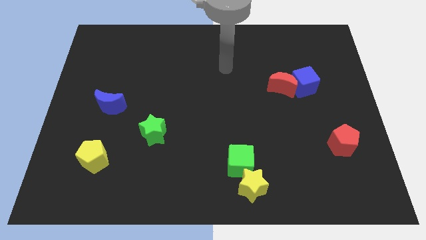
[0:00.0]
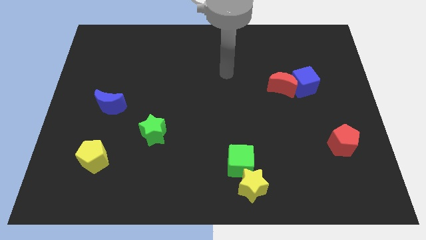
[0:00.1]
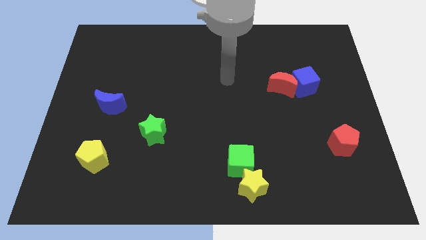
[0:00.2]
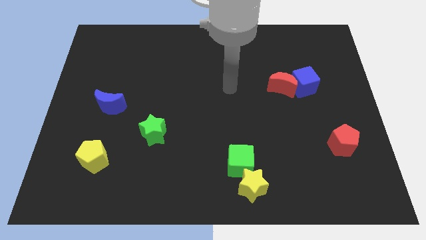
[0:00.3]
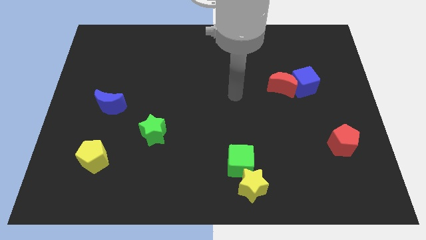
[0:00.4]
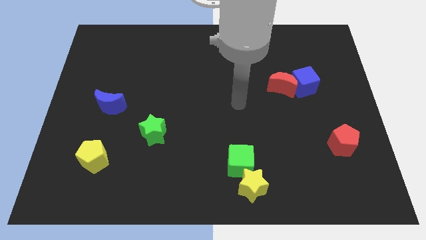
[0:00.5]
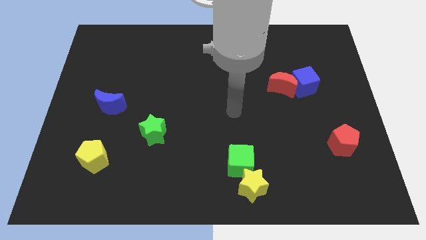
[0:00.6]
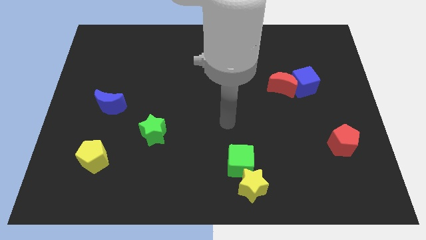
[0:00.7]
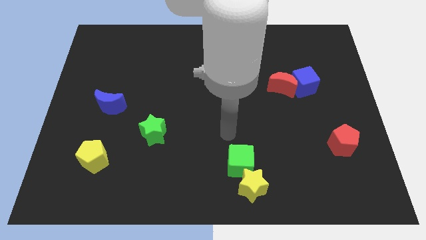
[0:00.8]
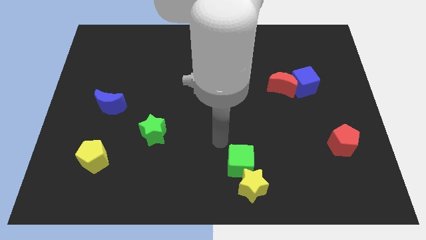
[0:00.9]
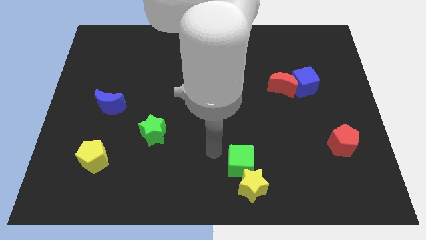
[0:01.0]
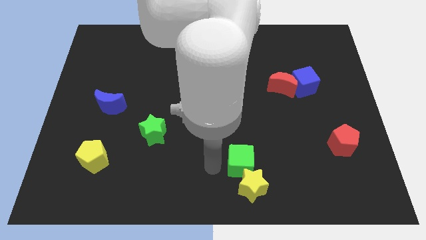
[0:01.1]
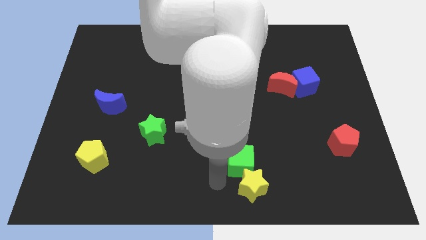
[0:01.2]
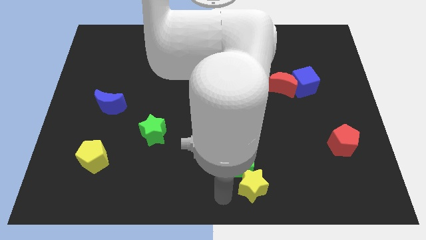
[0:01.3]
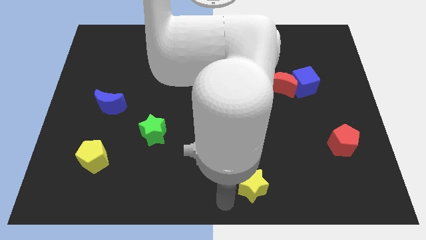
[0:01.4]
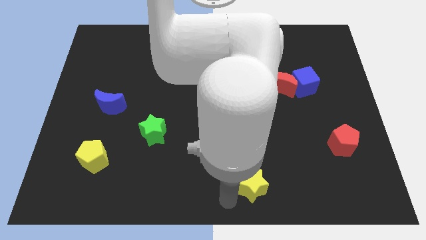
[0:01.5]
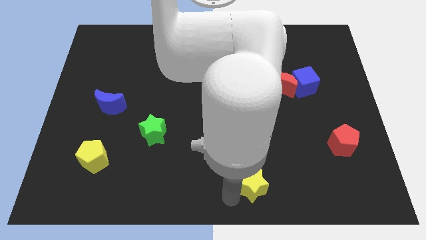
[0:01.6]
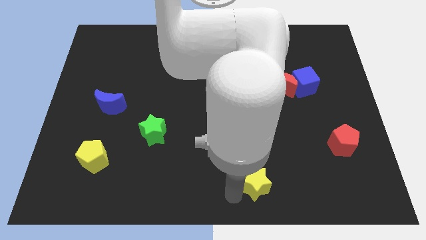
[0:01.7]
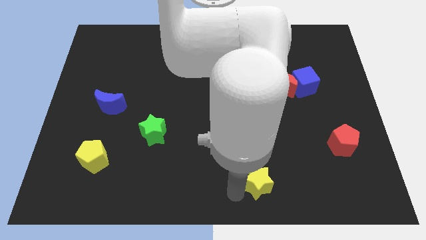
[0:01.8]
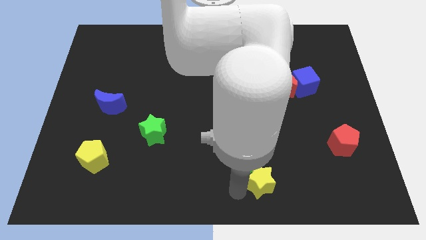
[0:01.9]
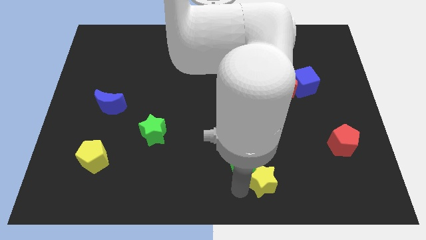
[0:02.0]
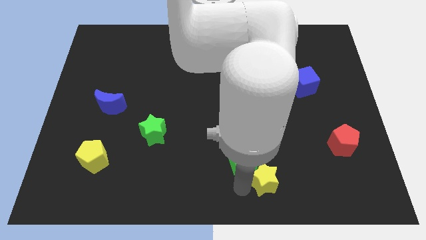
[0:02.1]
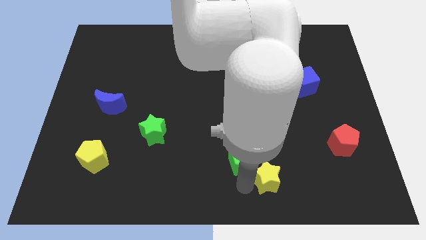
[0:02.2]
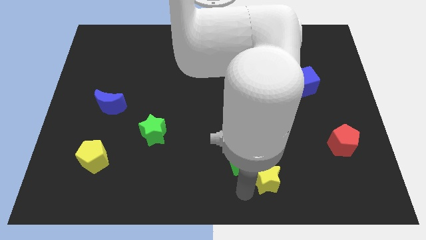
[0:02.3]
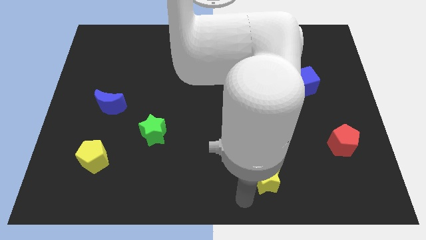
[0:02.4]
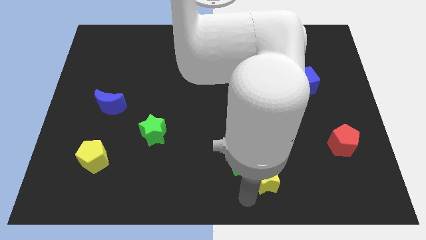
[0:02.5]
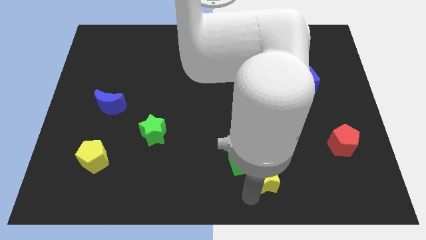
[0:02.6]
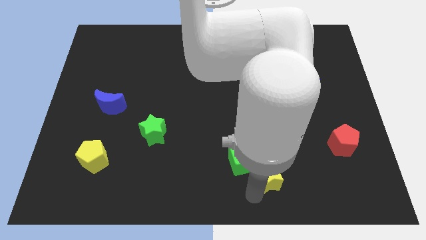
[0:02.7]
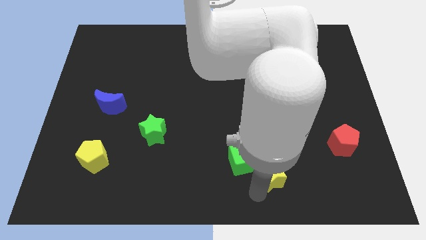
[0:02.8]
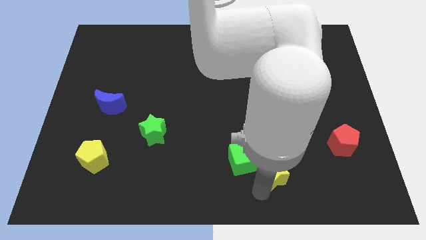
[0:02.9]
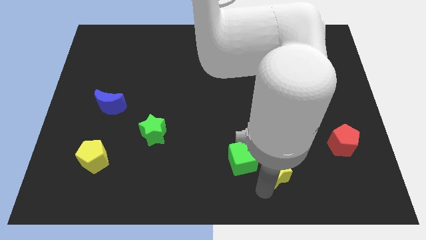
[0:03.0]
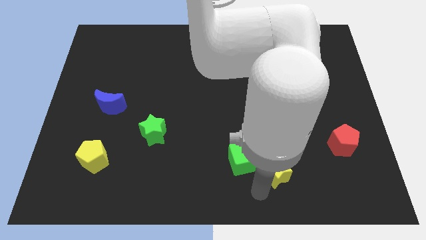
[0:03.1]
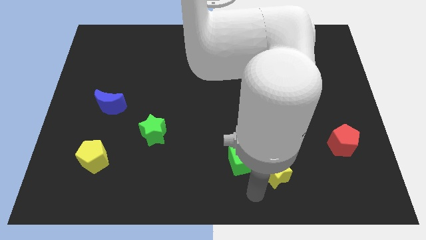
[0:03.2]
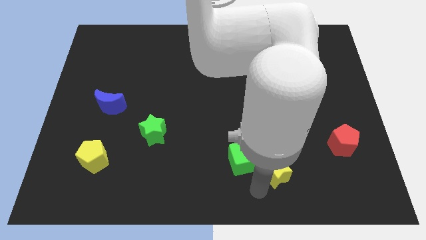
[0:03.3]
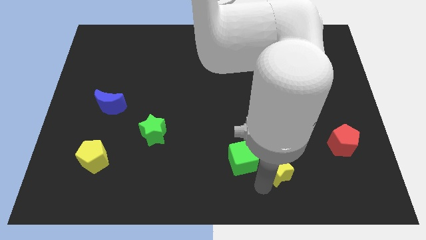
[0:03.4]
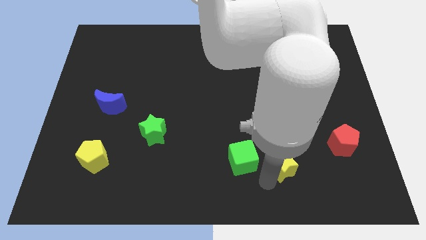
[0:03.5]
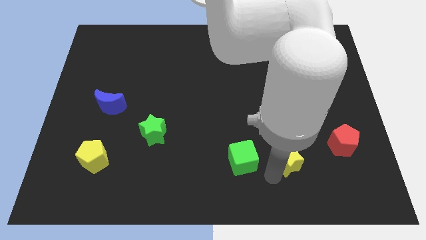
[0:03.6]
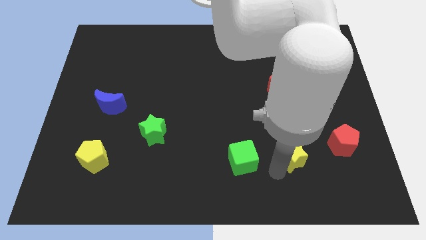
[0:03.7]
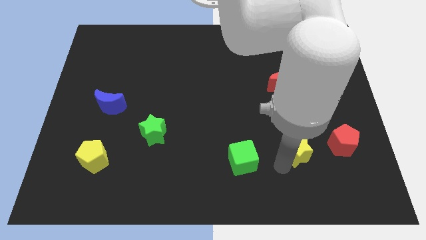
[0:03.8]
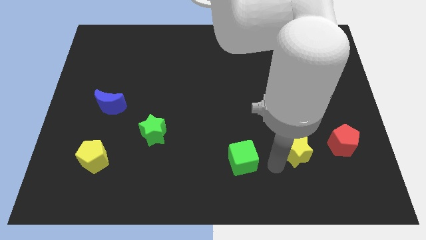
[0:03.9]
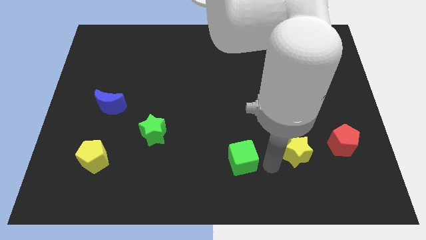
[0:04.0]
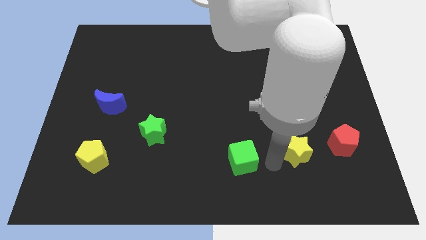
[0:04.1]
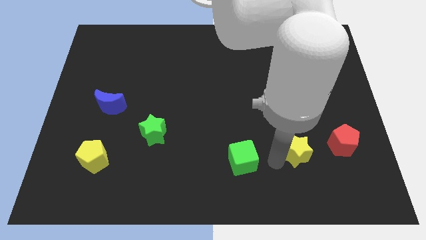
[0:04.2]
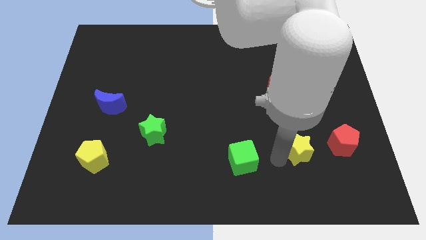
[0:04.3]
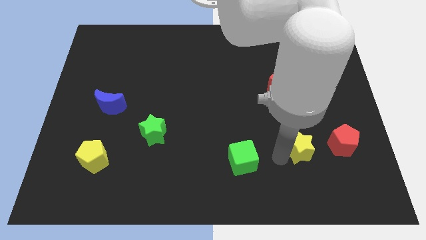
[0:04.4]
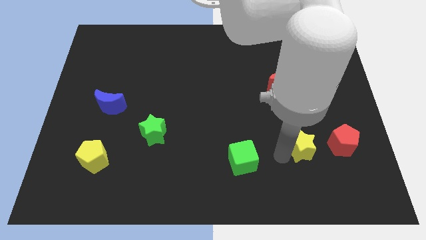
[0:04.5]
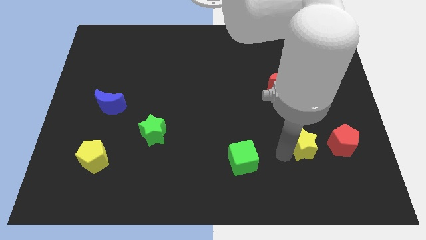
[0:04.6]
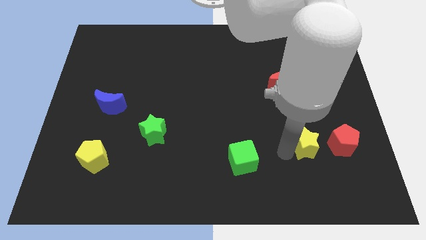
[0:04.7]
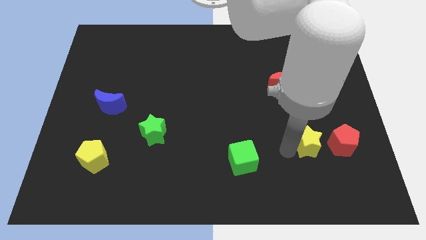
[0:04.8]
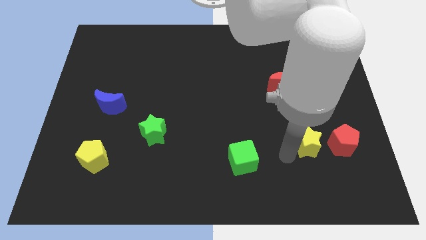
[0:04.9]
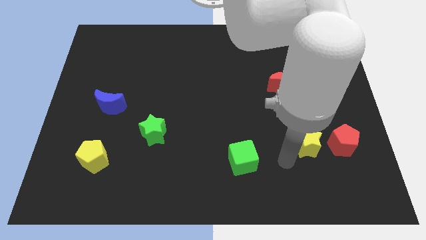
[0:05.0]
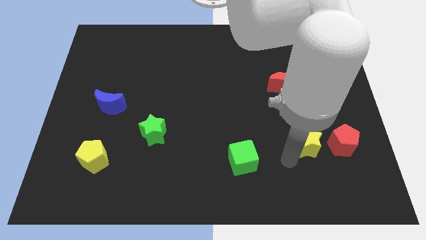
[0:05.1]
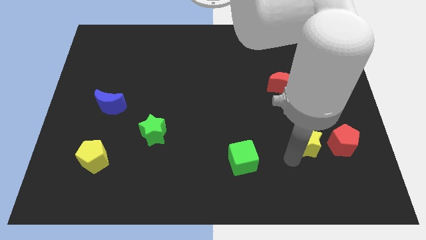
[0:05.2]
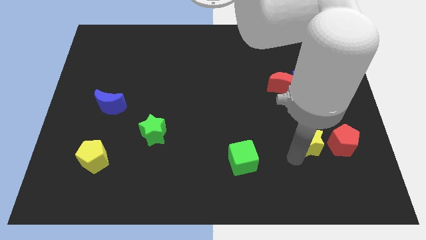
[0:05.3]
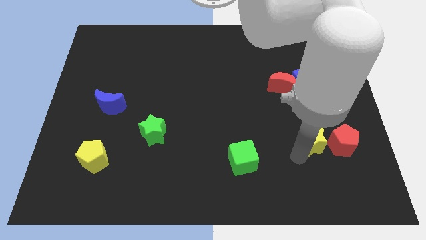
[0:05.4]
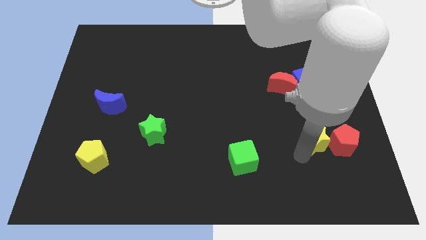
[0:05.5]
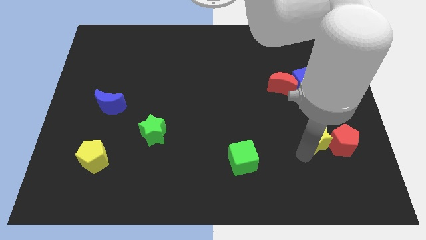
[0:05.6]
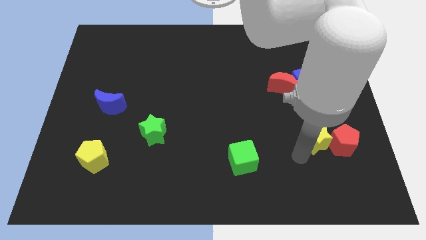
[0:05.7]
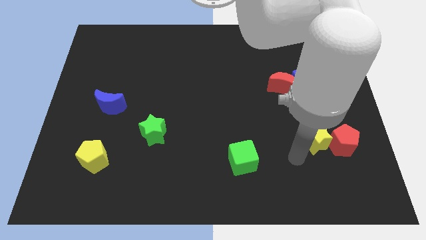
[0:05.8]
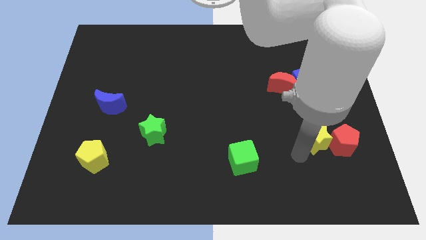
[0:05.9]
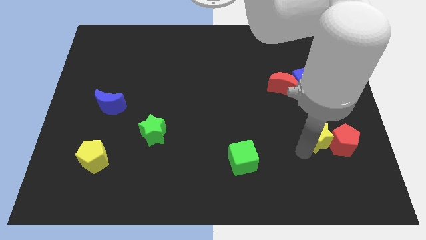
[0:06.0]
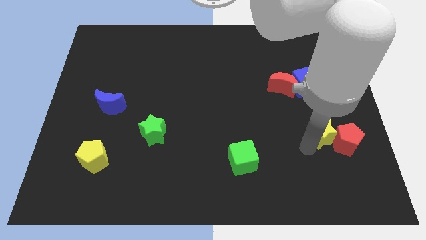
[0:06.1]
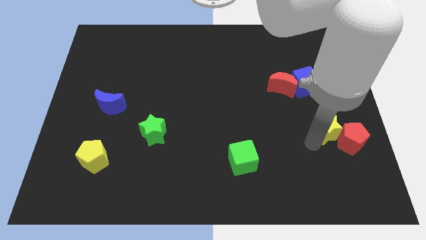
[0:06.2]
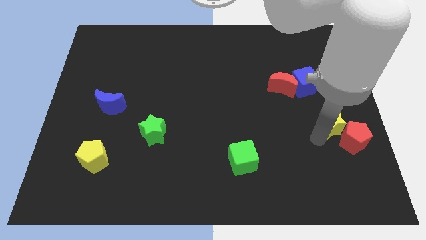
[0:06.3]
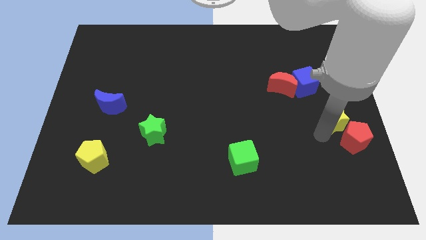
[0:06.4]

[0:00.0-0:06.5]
push the yellow star to the right side

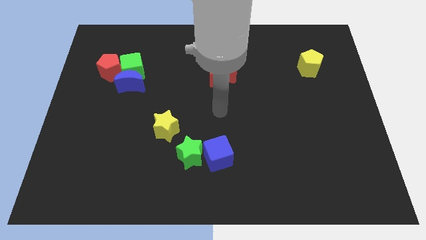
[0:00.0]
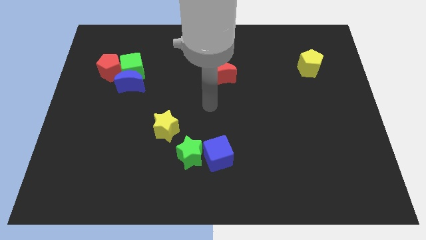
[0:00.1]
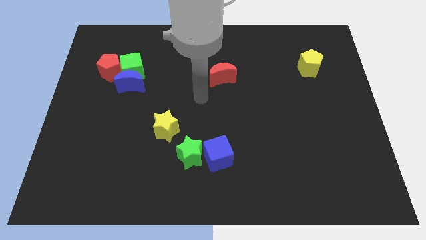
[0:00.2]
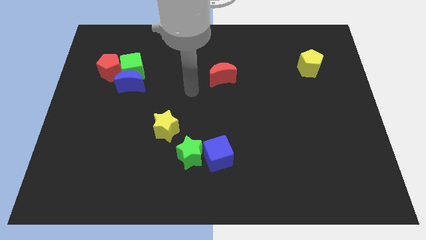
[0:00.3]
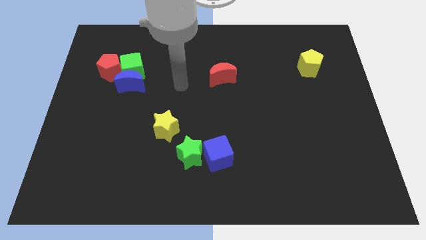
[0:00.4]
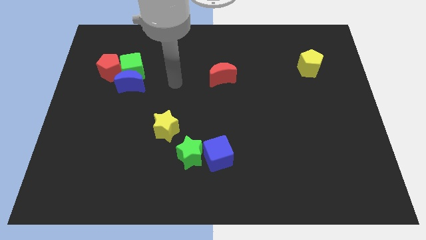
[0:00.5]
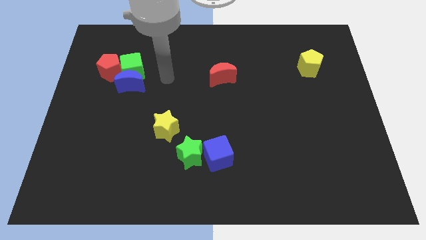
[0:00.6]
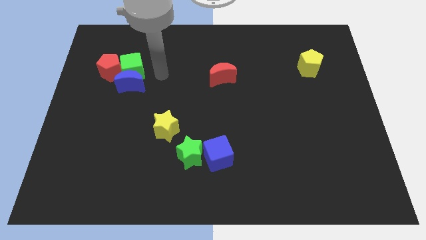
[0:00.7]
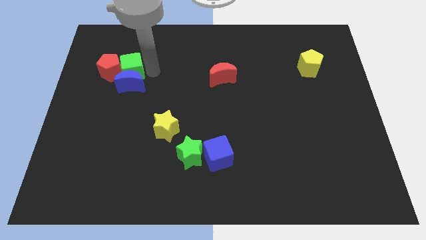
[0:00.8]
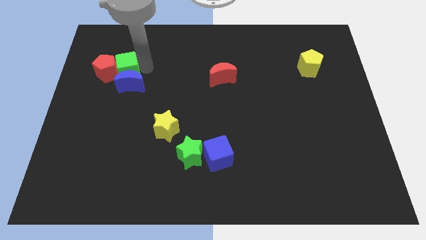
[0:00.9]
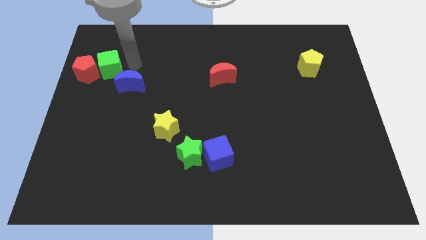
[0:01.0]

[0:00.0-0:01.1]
slide the red pentagon to the center left

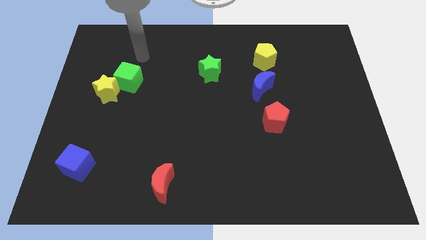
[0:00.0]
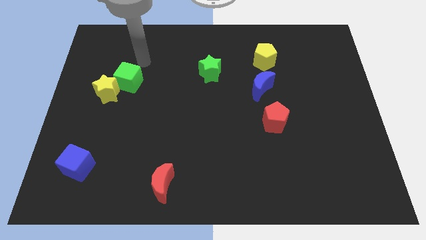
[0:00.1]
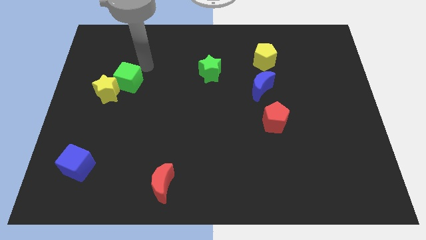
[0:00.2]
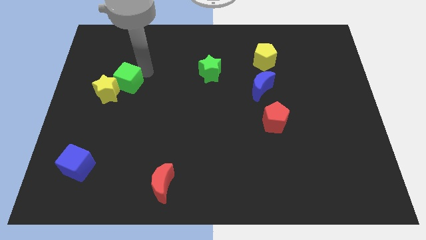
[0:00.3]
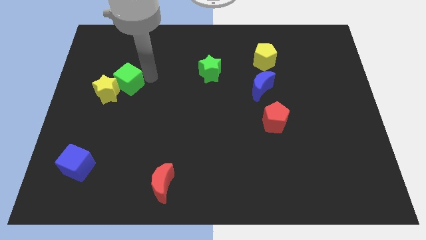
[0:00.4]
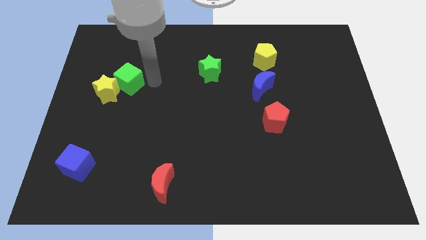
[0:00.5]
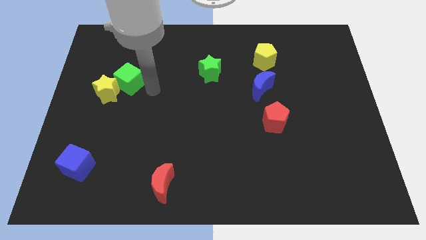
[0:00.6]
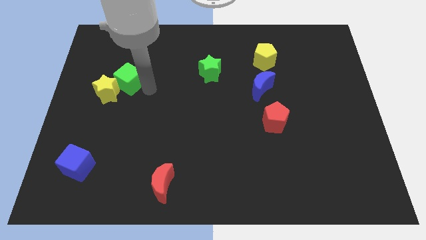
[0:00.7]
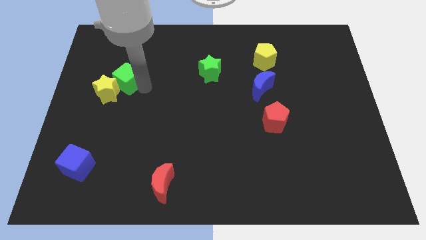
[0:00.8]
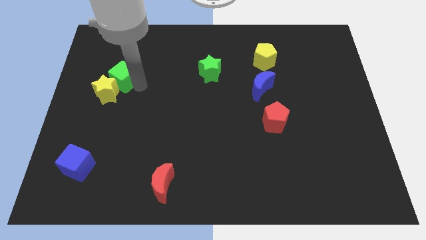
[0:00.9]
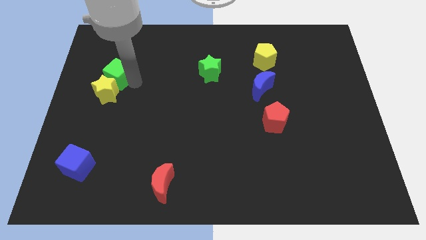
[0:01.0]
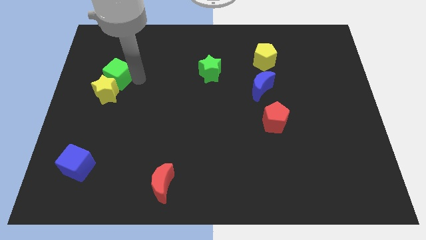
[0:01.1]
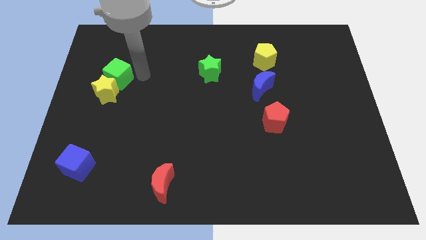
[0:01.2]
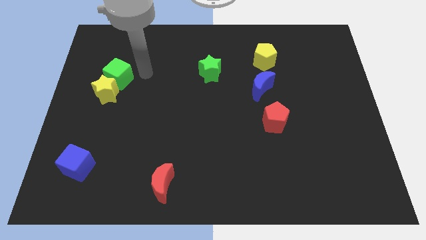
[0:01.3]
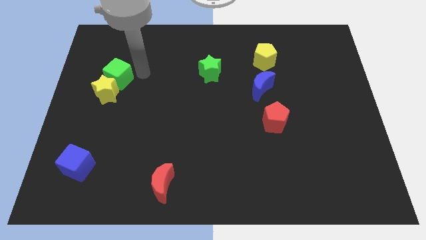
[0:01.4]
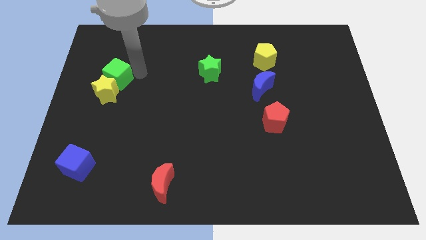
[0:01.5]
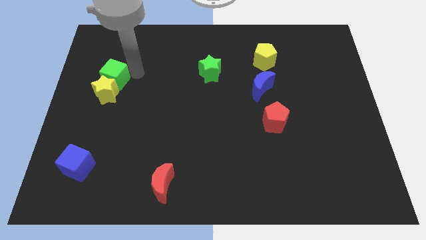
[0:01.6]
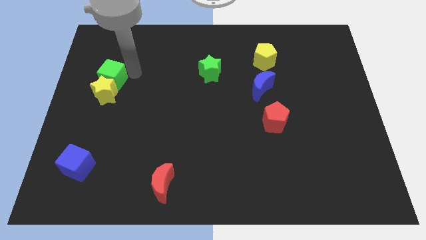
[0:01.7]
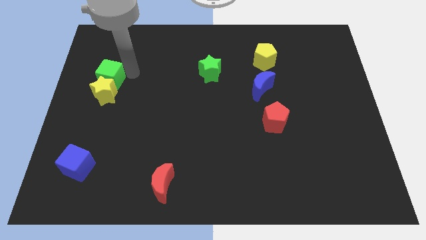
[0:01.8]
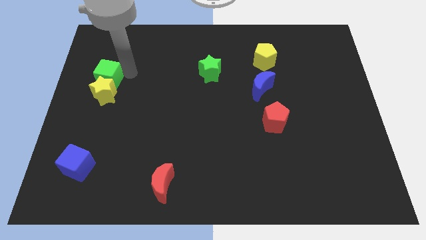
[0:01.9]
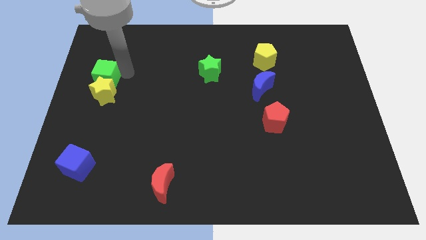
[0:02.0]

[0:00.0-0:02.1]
put the green cube to the center left
